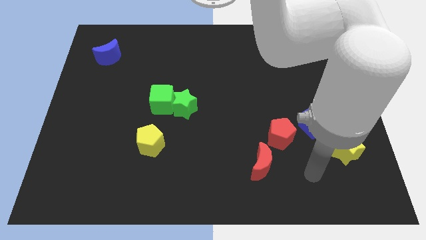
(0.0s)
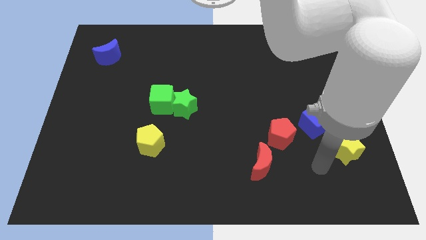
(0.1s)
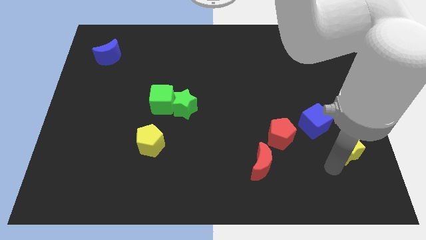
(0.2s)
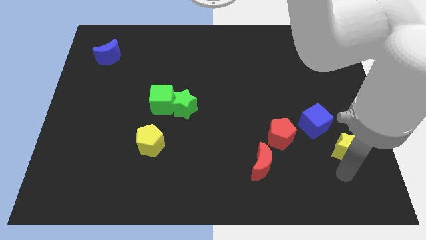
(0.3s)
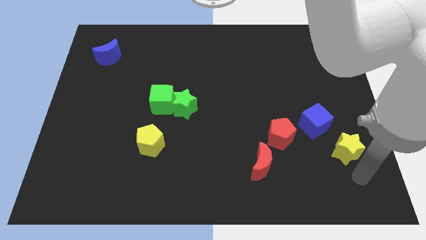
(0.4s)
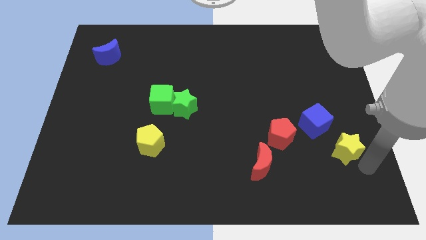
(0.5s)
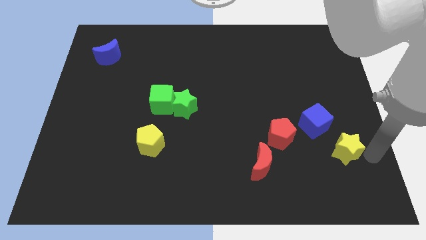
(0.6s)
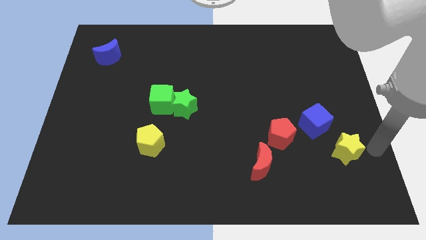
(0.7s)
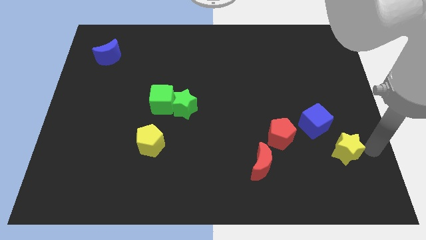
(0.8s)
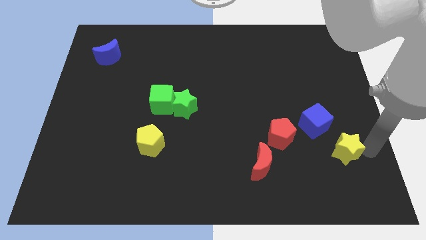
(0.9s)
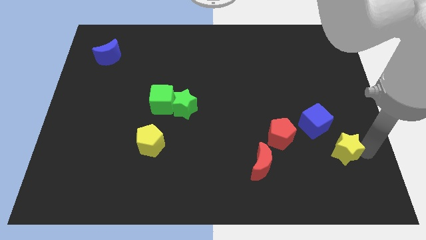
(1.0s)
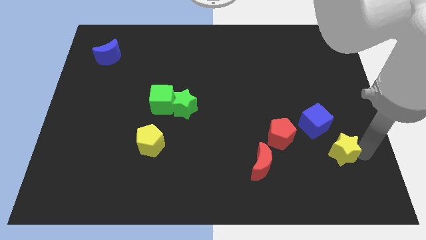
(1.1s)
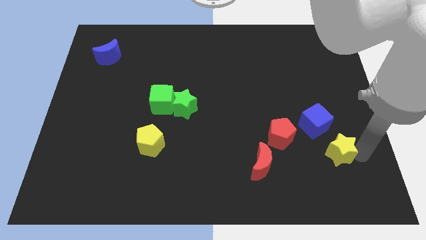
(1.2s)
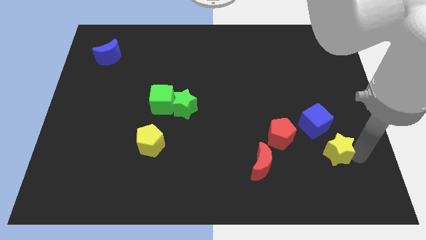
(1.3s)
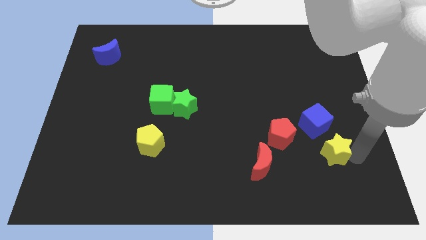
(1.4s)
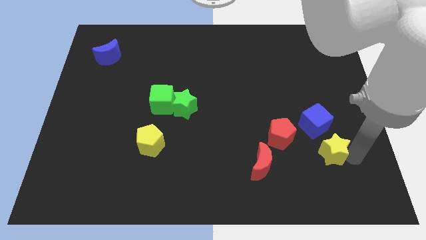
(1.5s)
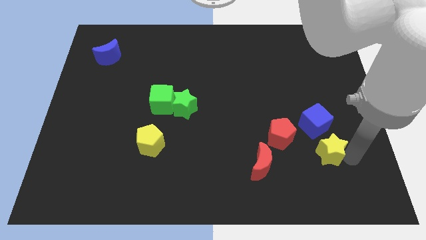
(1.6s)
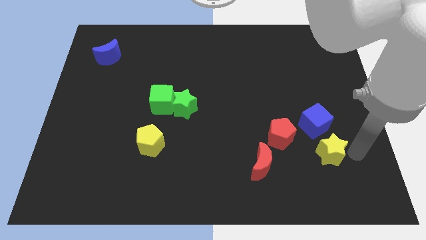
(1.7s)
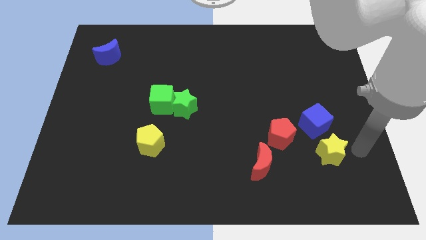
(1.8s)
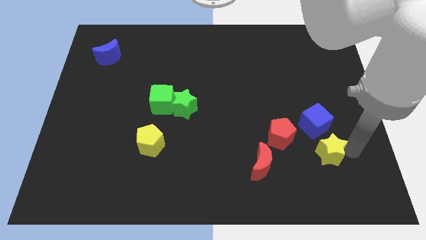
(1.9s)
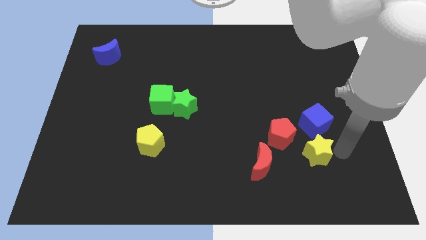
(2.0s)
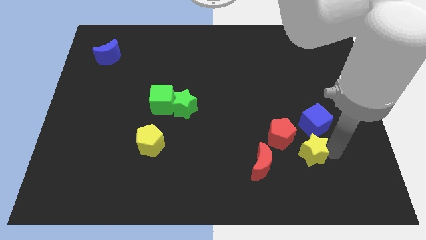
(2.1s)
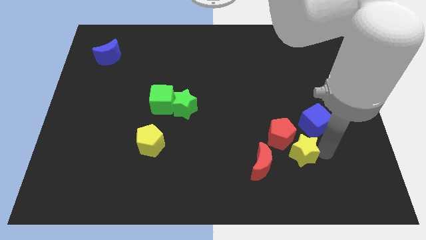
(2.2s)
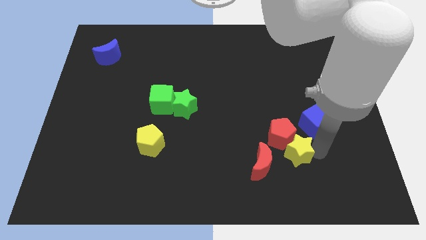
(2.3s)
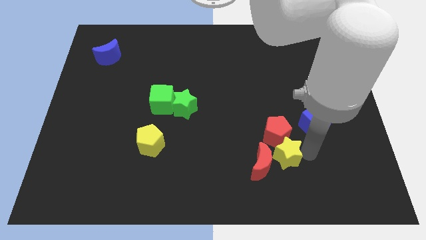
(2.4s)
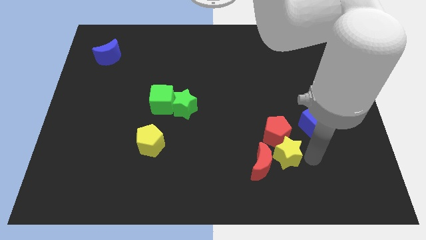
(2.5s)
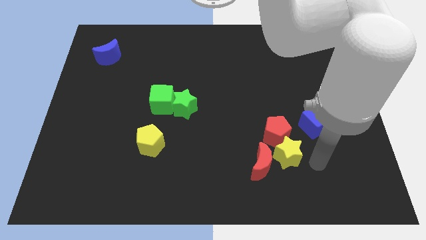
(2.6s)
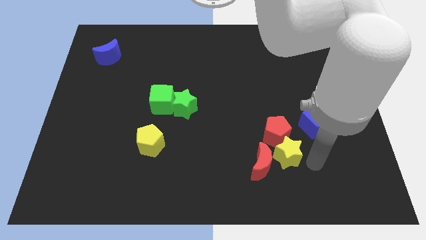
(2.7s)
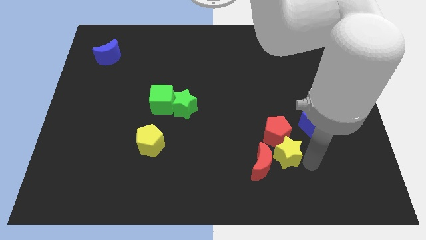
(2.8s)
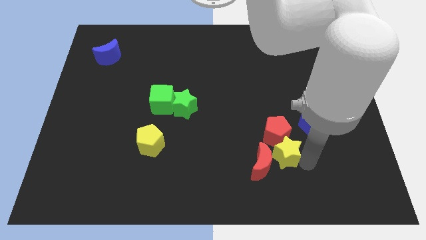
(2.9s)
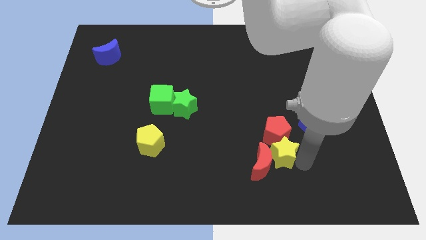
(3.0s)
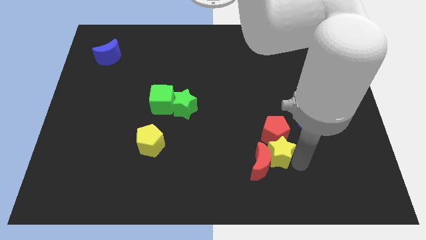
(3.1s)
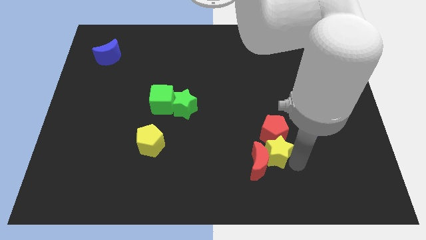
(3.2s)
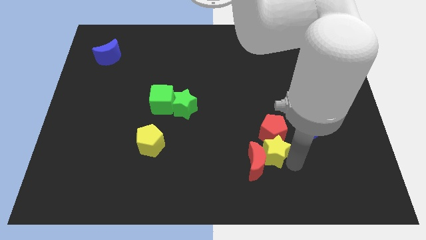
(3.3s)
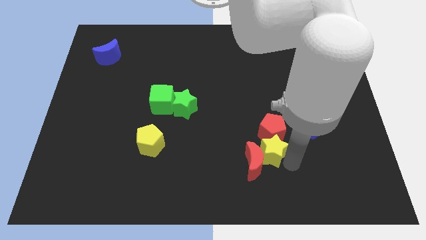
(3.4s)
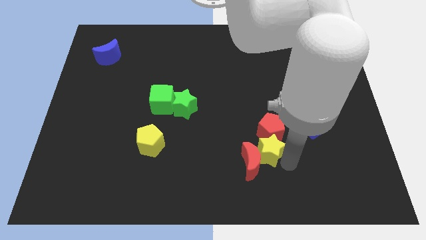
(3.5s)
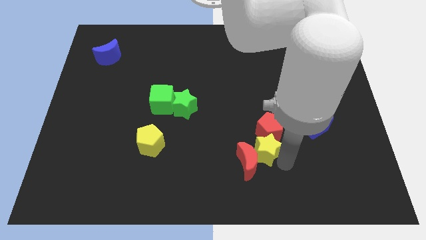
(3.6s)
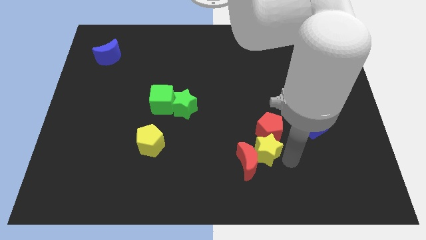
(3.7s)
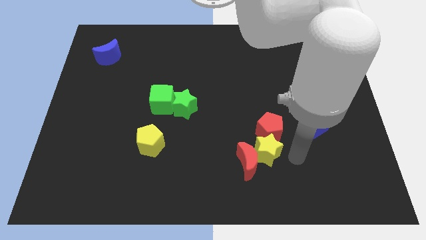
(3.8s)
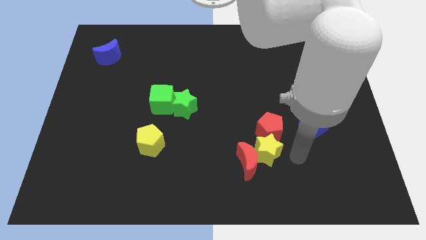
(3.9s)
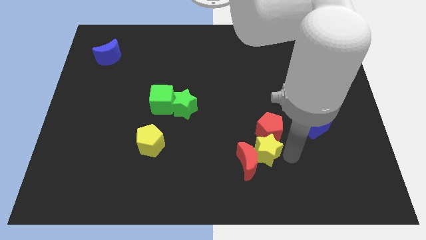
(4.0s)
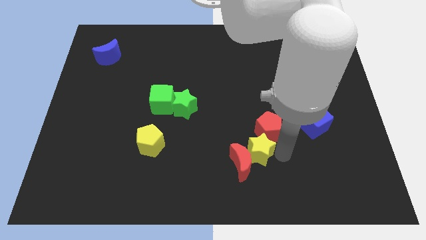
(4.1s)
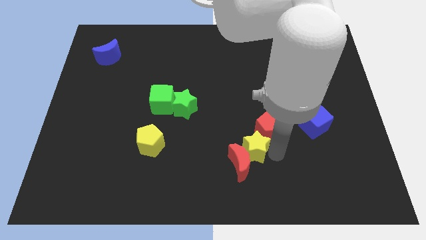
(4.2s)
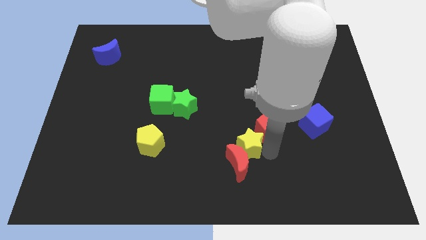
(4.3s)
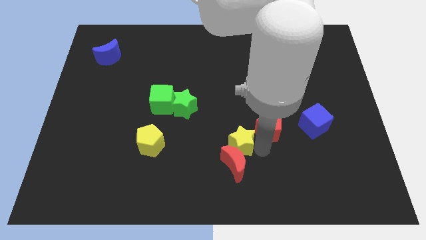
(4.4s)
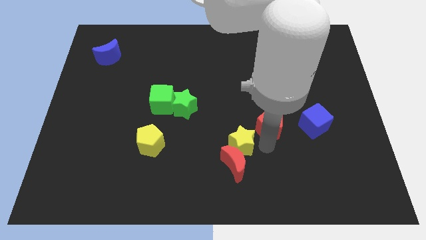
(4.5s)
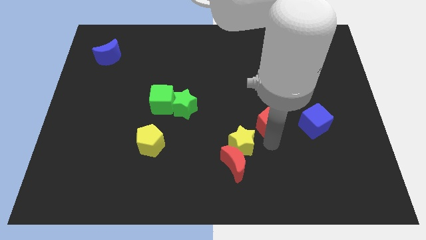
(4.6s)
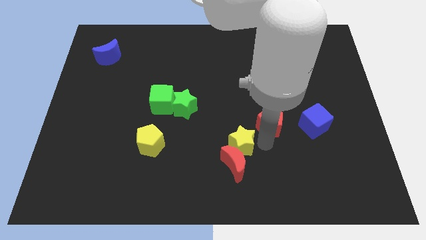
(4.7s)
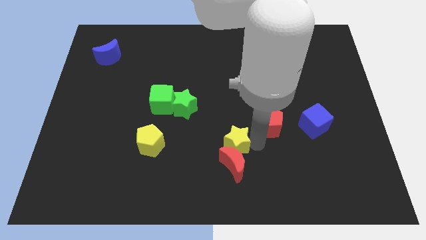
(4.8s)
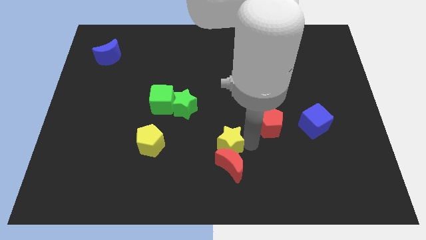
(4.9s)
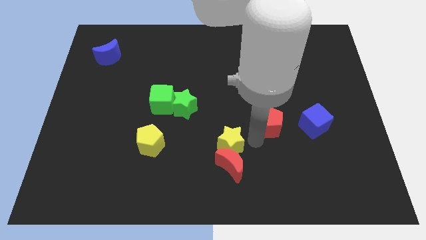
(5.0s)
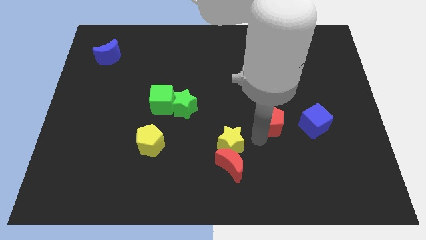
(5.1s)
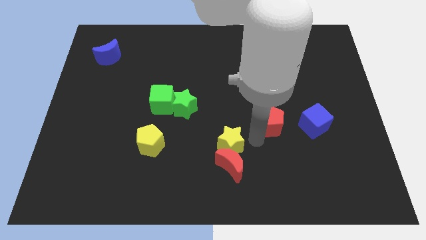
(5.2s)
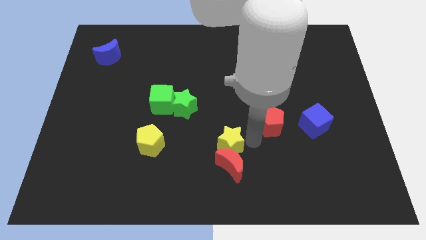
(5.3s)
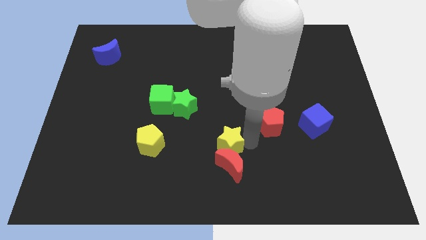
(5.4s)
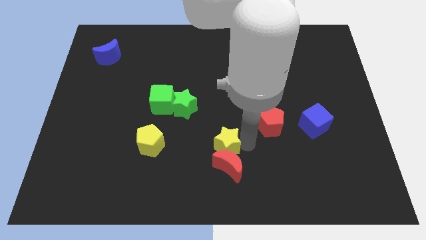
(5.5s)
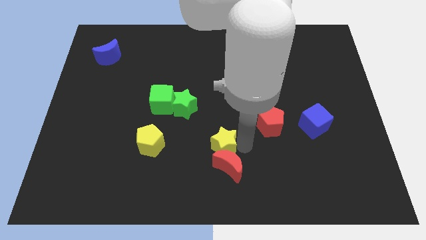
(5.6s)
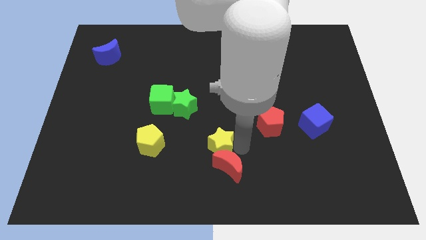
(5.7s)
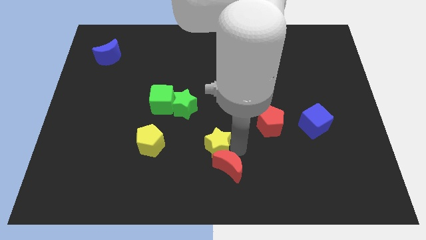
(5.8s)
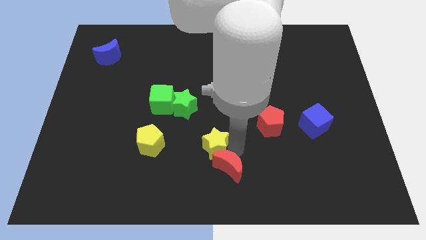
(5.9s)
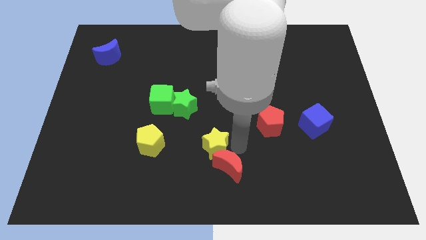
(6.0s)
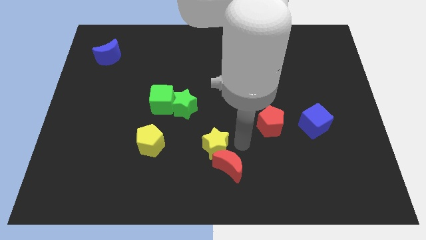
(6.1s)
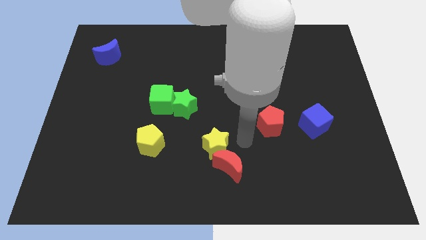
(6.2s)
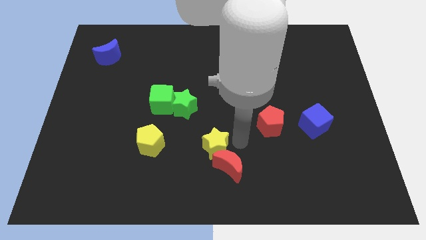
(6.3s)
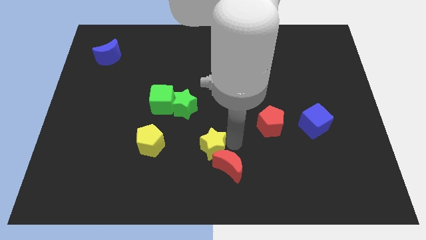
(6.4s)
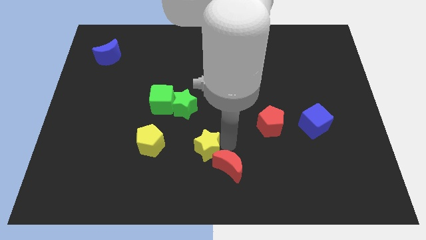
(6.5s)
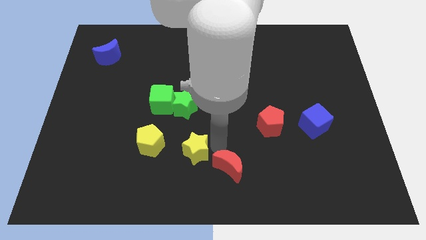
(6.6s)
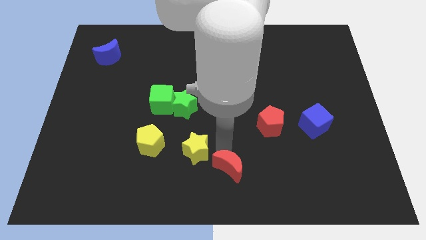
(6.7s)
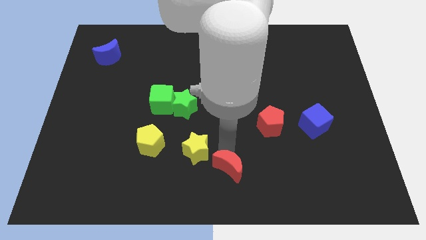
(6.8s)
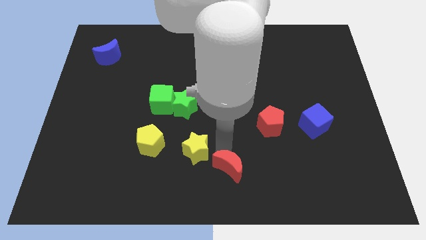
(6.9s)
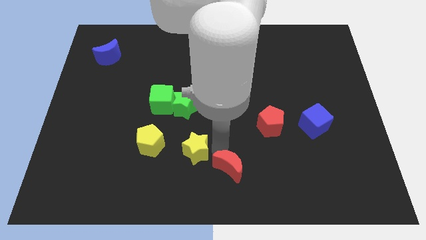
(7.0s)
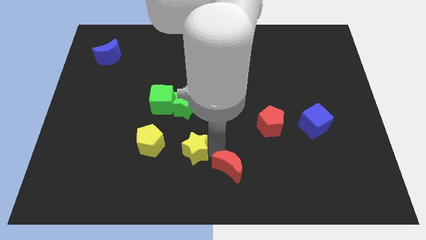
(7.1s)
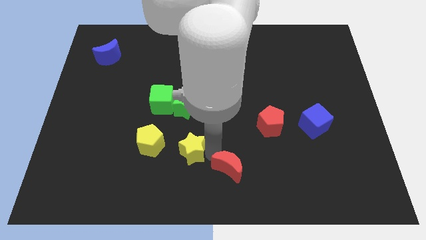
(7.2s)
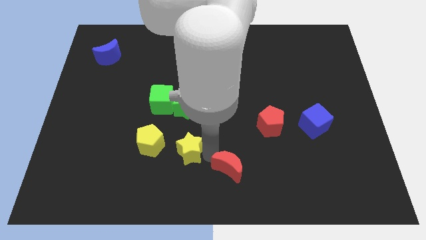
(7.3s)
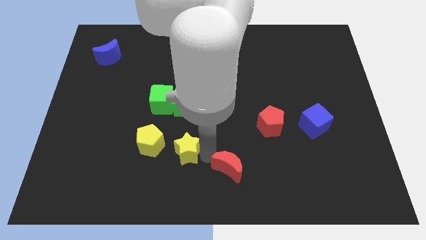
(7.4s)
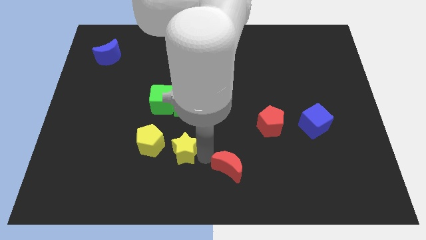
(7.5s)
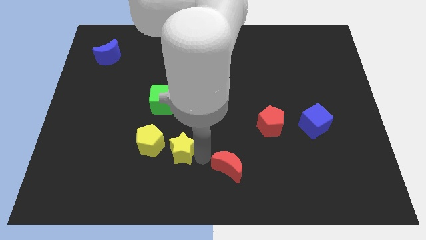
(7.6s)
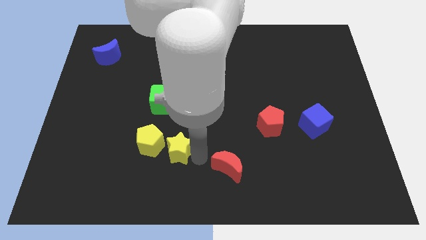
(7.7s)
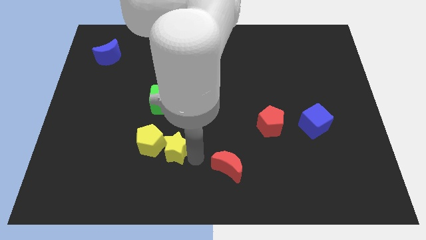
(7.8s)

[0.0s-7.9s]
move the yellow star close to the yellow pentagon
